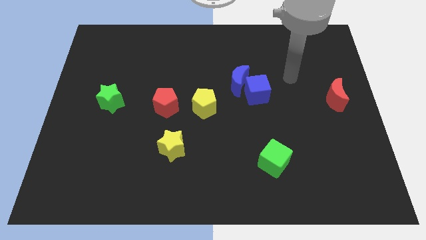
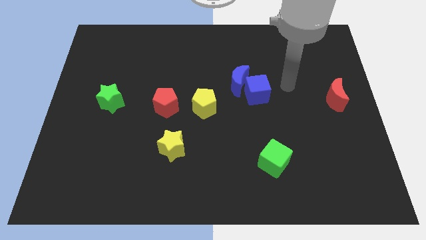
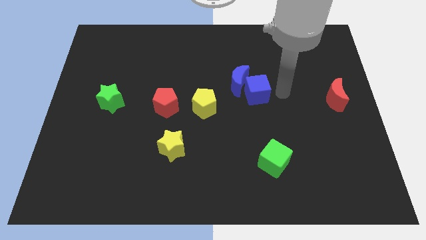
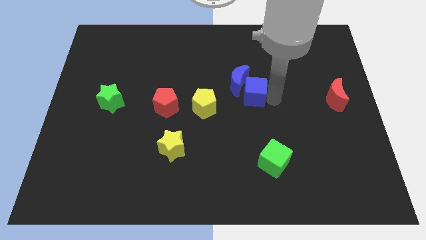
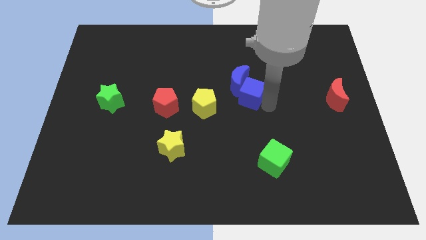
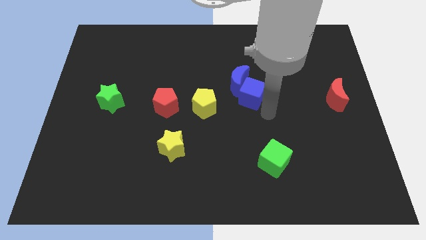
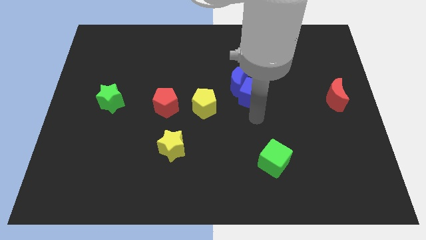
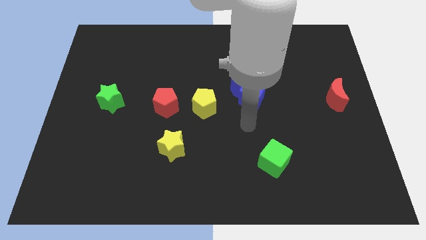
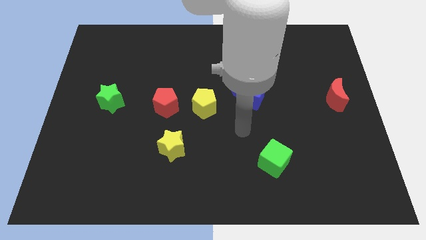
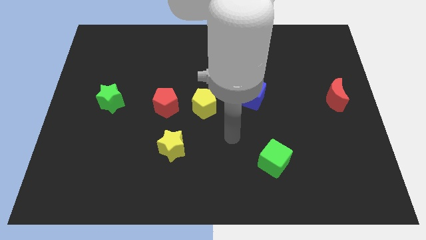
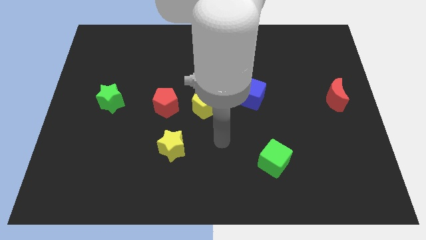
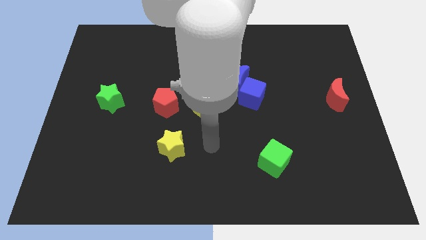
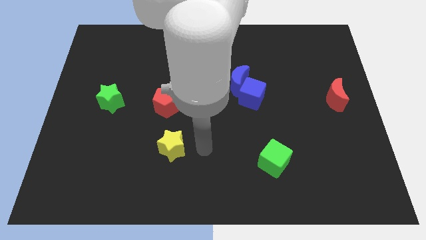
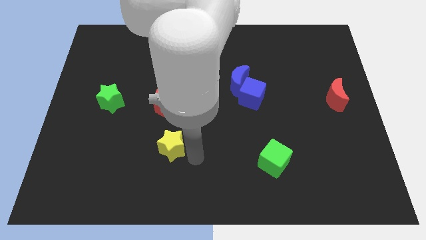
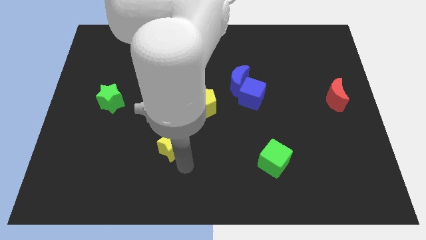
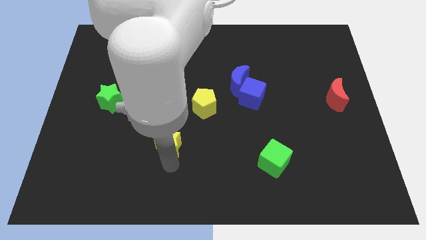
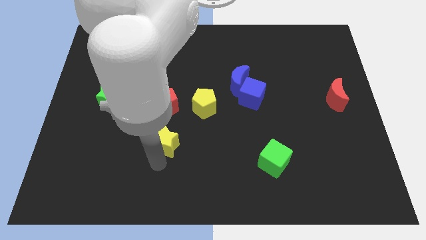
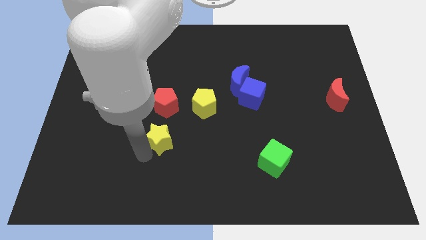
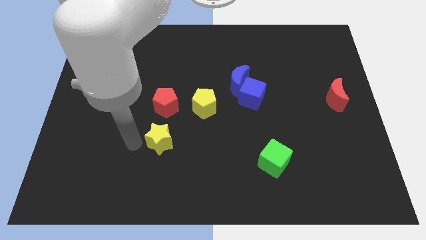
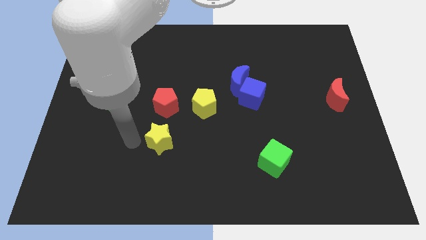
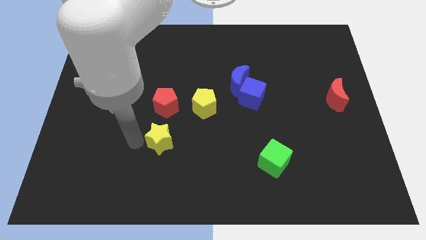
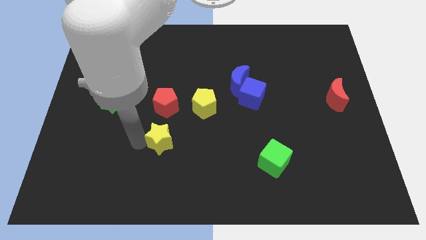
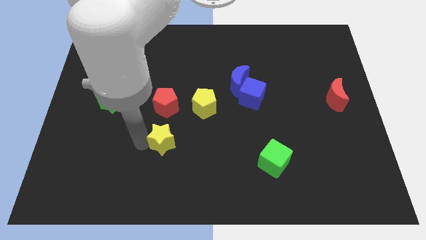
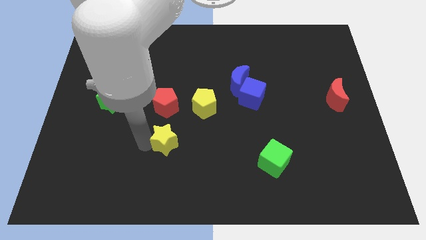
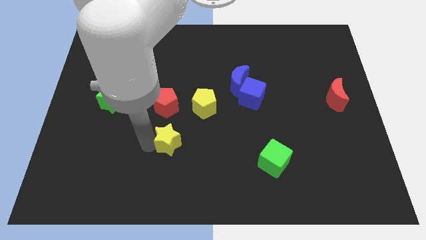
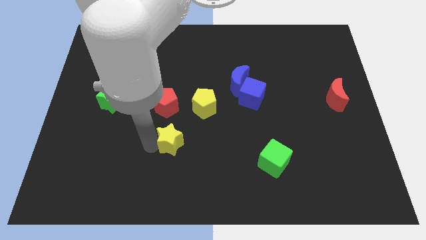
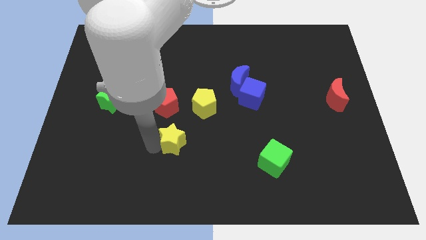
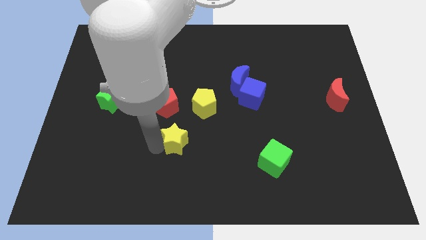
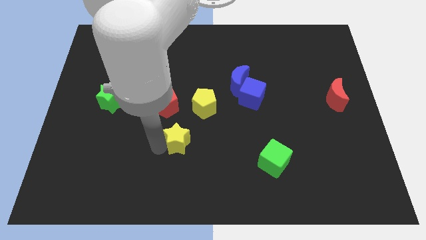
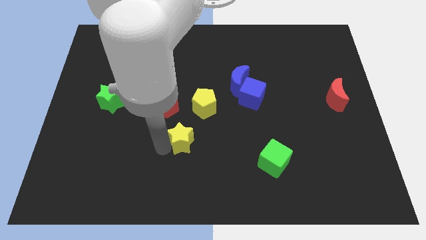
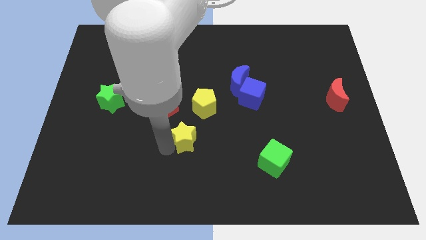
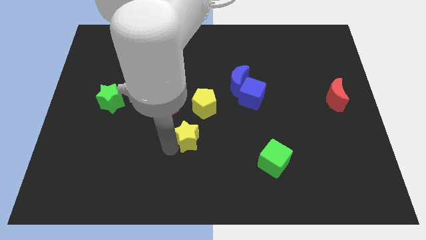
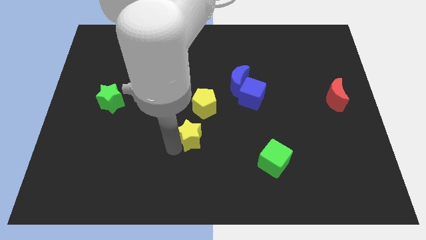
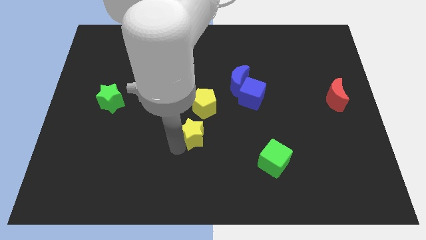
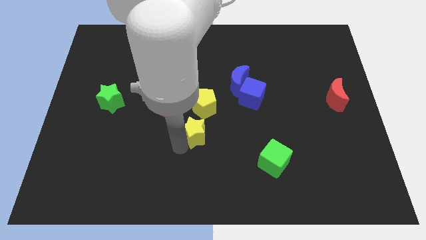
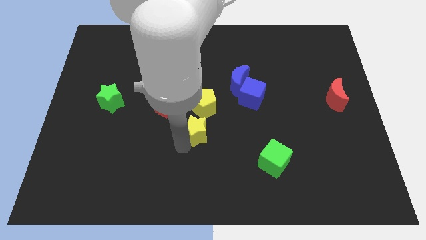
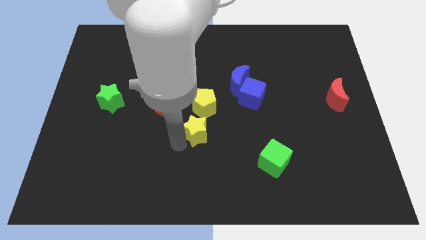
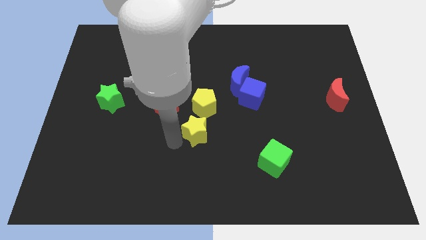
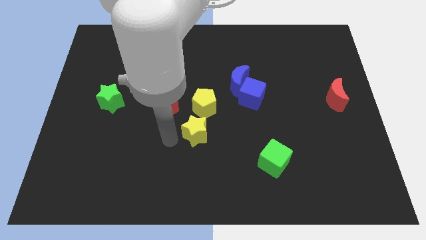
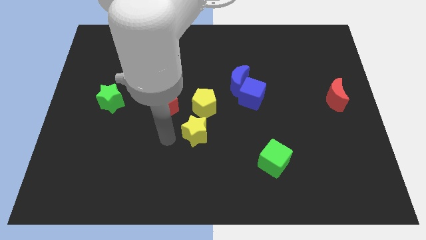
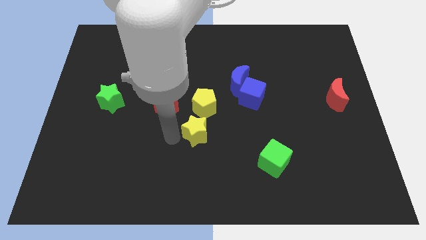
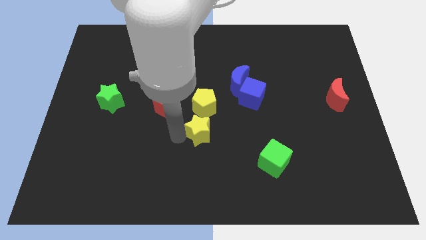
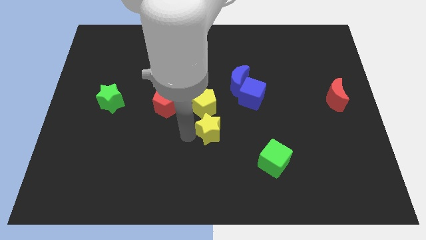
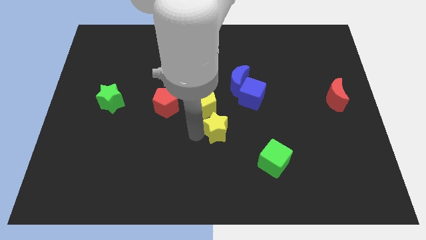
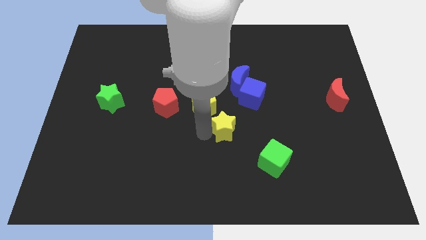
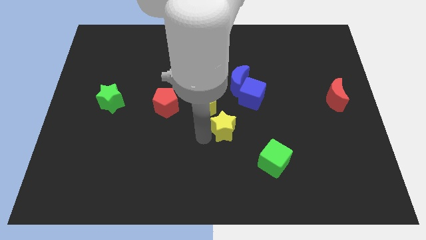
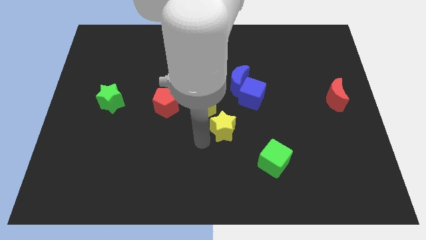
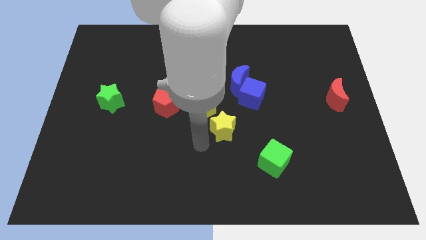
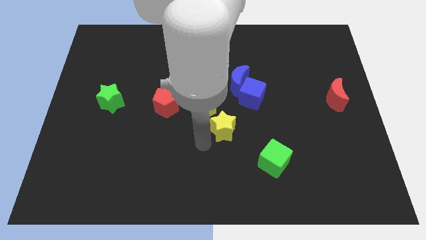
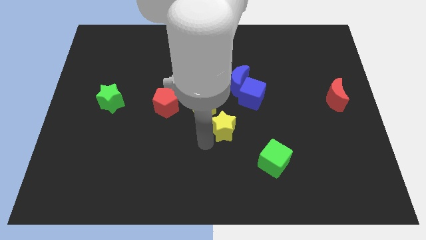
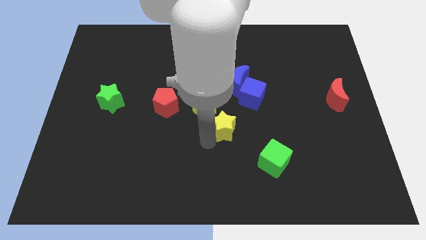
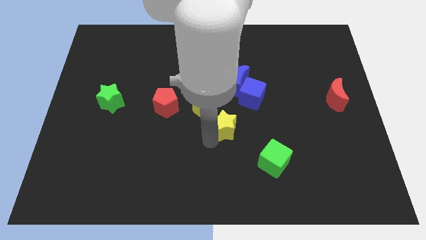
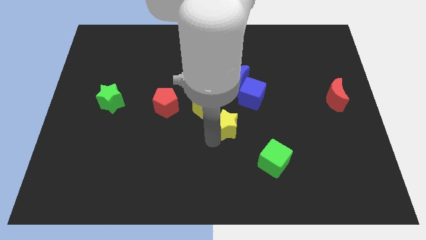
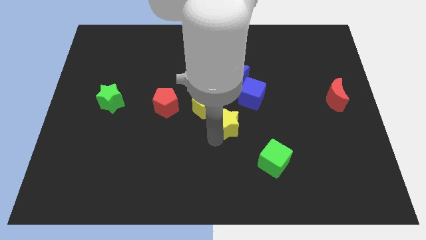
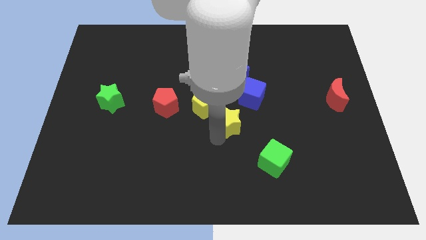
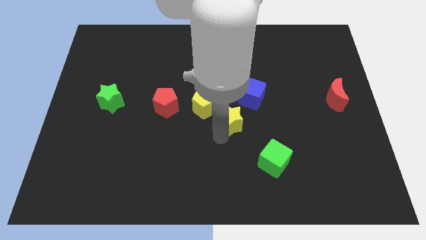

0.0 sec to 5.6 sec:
put the yellow star to the right of the yellow pentagon

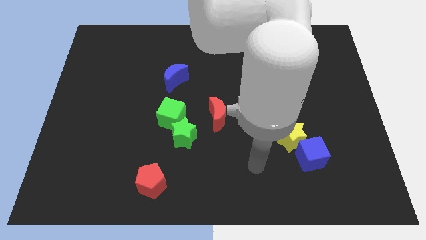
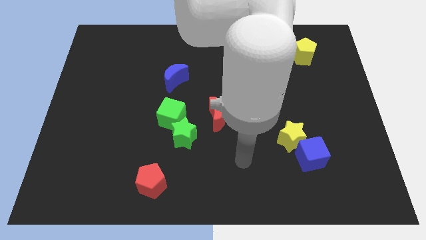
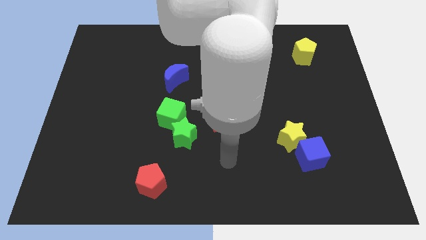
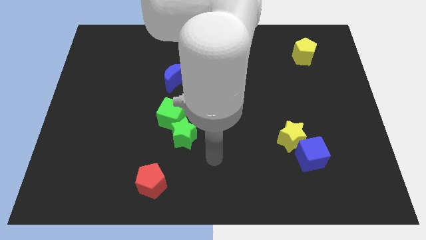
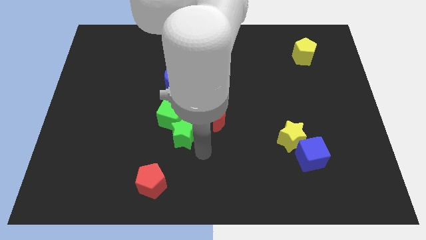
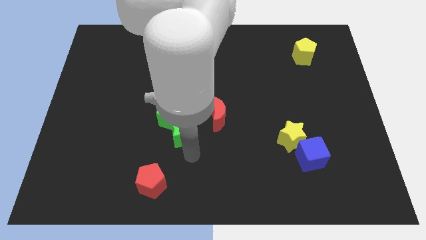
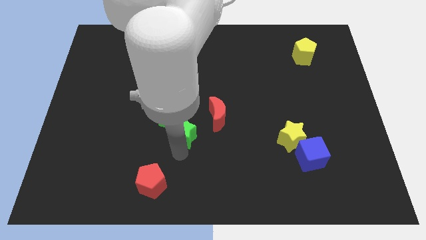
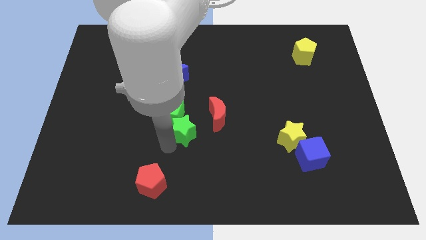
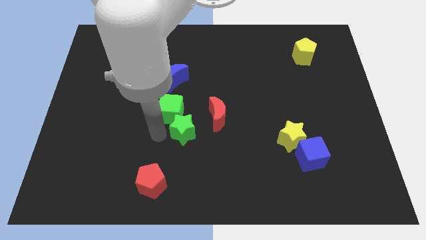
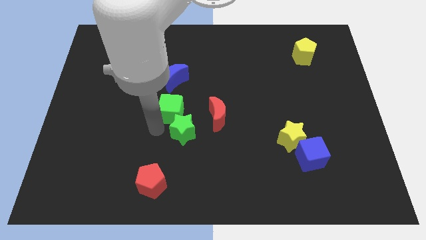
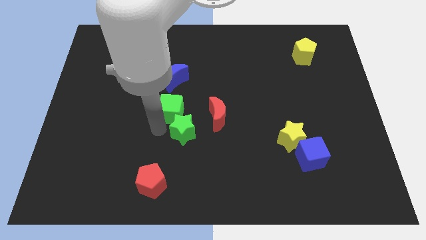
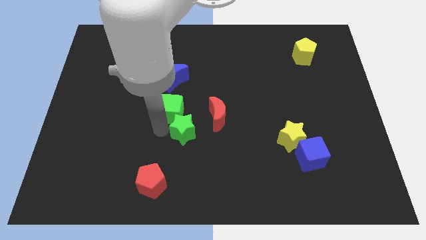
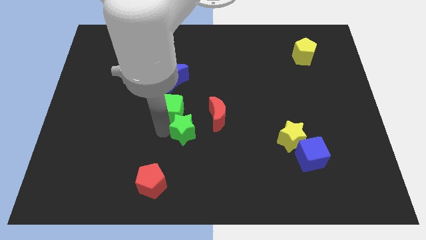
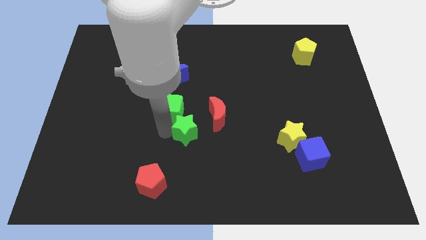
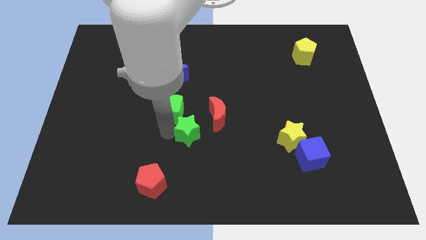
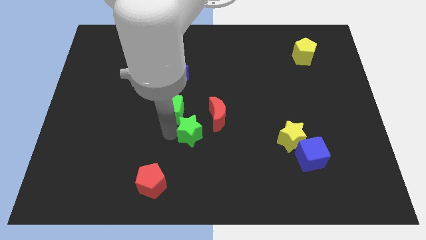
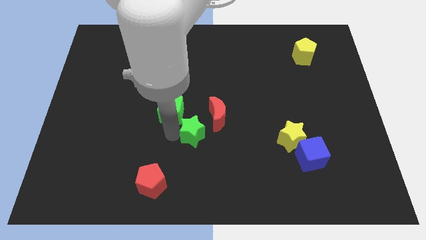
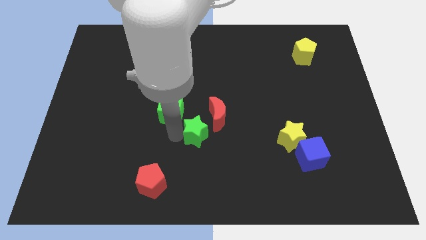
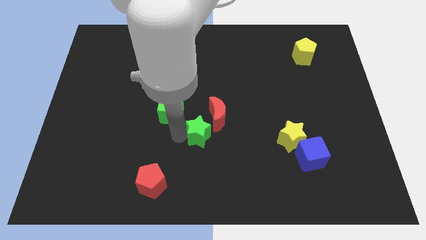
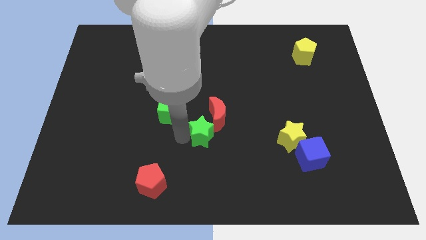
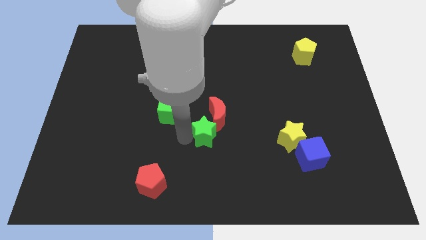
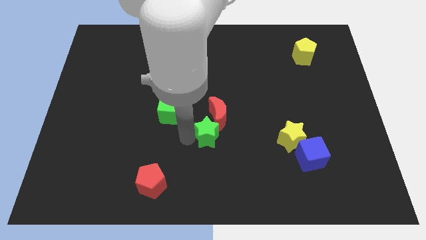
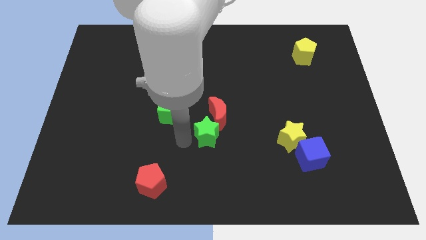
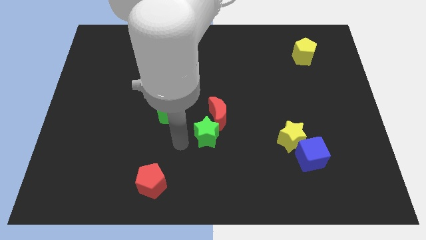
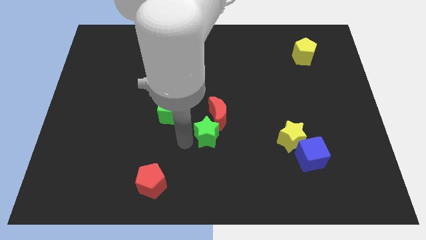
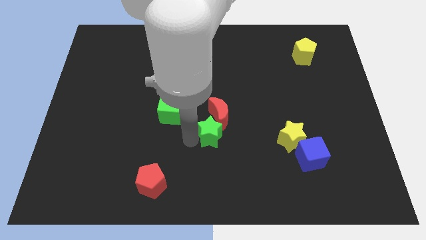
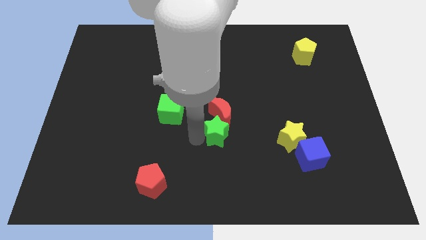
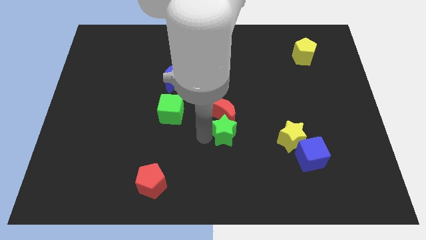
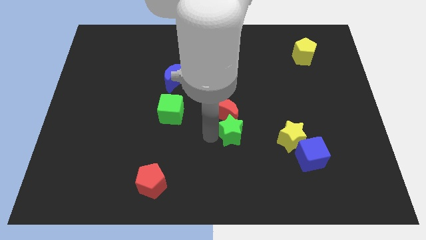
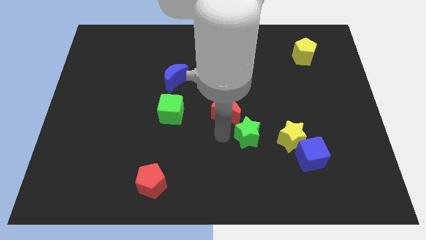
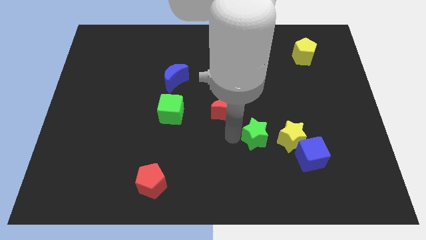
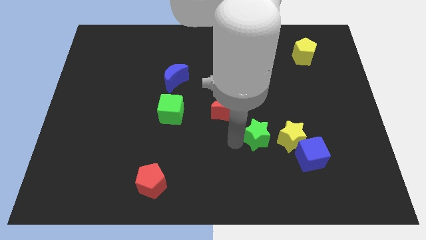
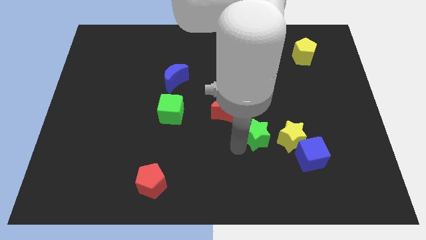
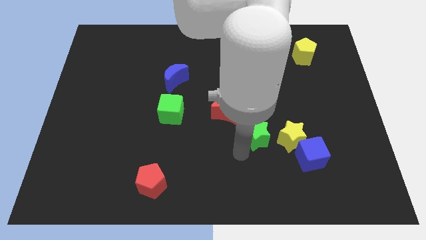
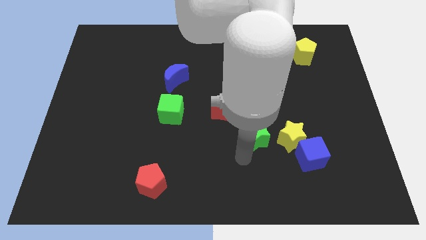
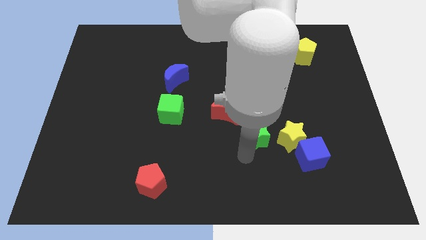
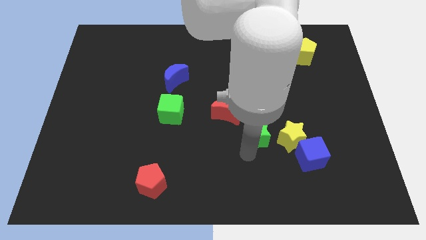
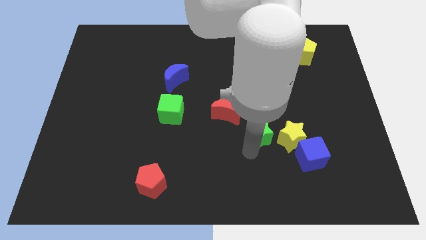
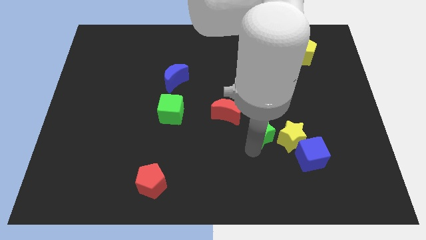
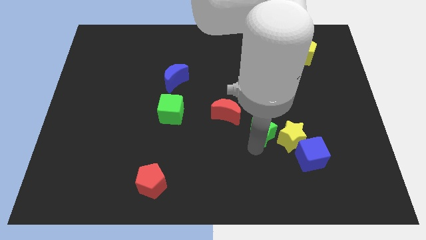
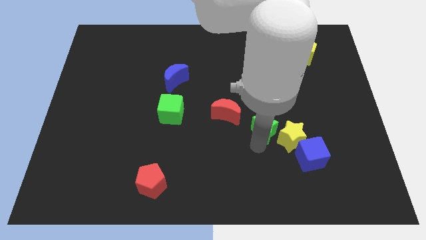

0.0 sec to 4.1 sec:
slide the green star to the right side of the red moon
